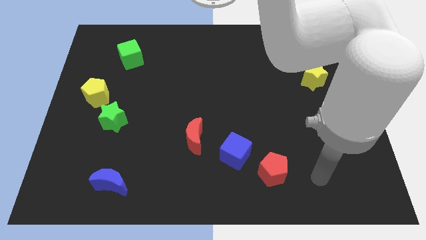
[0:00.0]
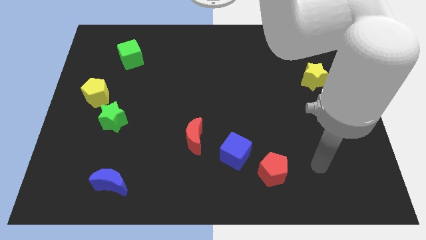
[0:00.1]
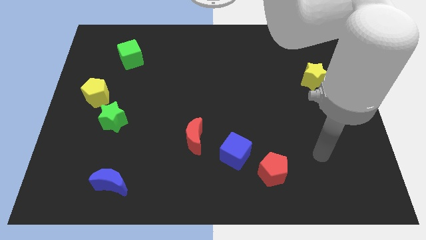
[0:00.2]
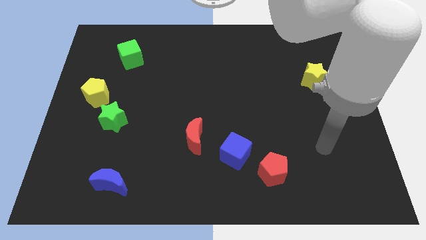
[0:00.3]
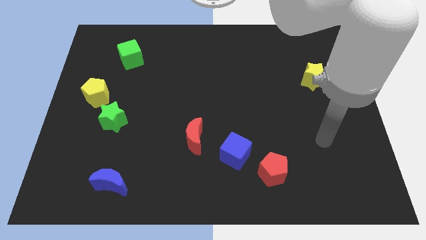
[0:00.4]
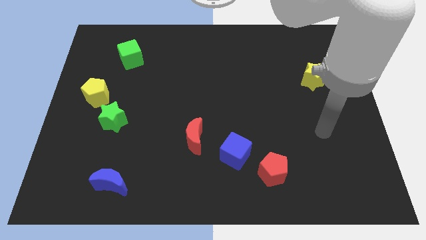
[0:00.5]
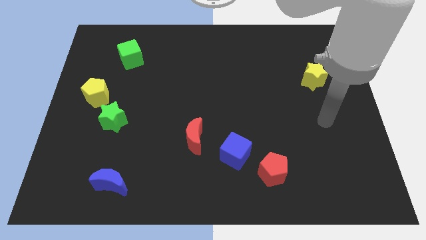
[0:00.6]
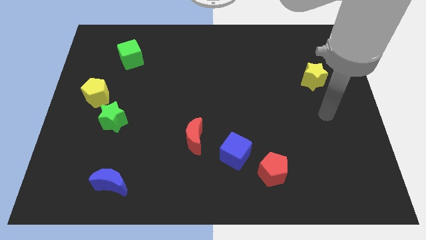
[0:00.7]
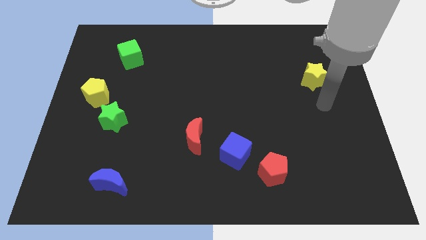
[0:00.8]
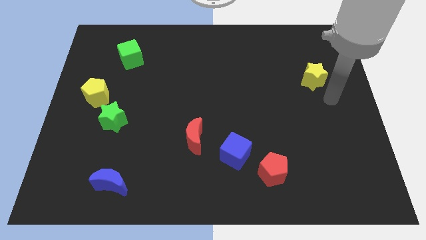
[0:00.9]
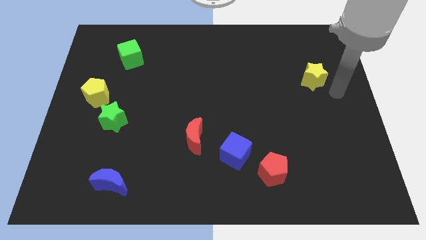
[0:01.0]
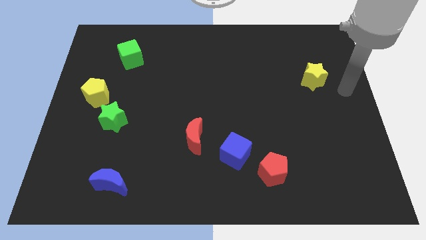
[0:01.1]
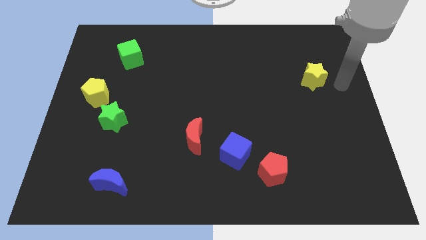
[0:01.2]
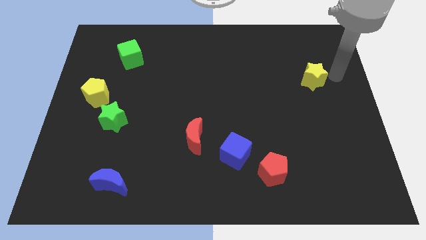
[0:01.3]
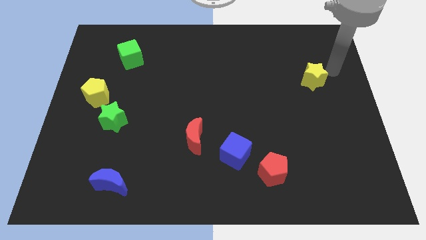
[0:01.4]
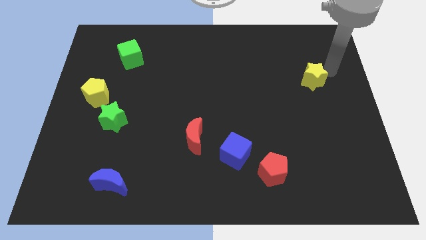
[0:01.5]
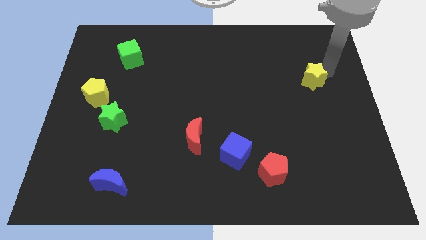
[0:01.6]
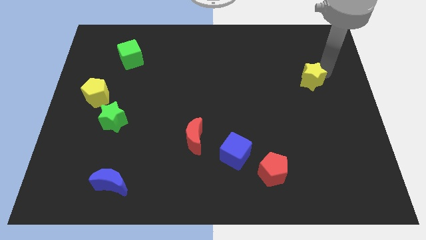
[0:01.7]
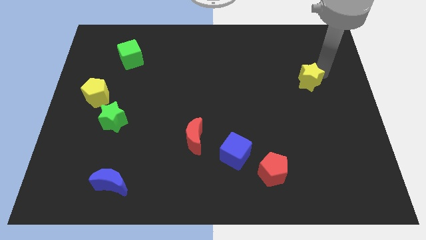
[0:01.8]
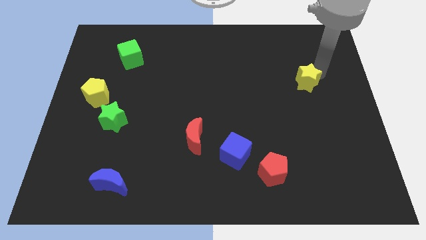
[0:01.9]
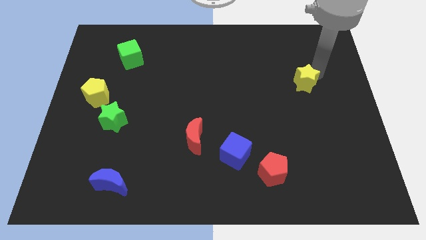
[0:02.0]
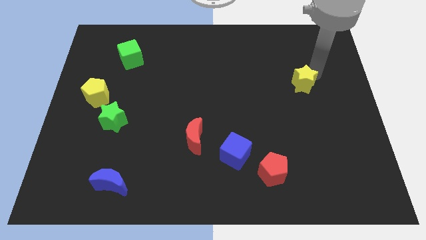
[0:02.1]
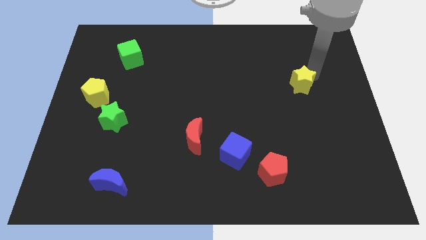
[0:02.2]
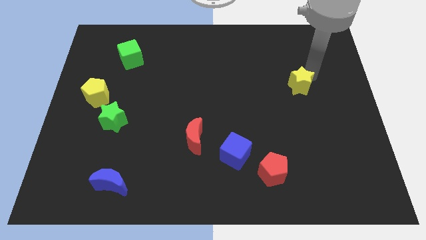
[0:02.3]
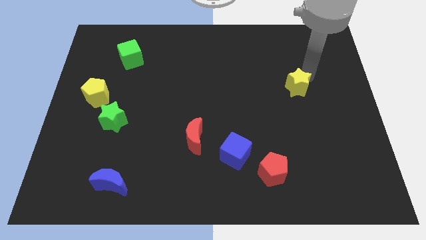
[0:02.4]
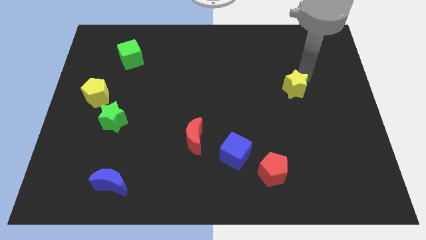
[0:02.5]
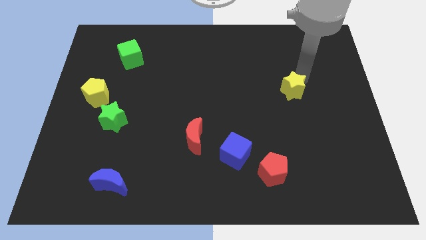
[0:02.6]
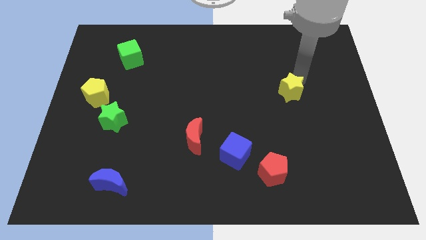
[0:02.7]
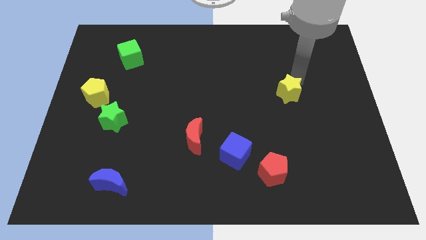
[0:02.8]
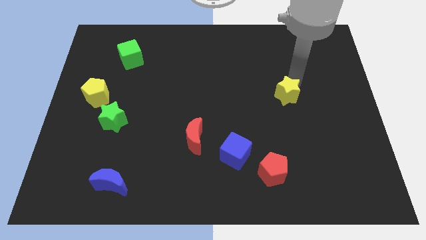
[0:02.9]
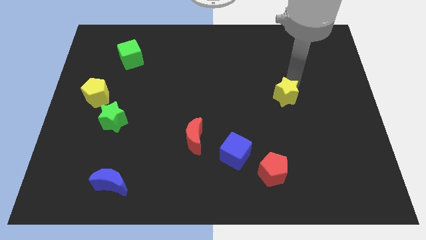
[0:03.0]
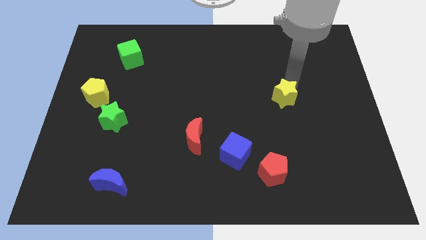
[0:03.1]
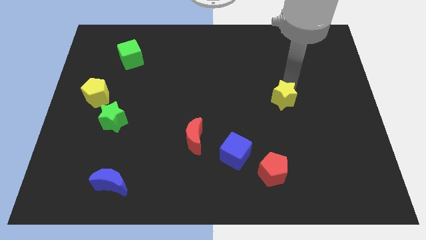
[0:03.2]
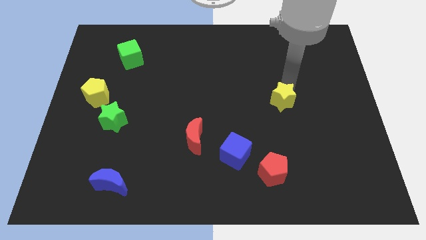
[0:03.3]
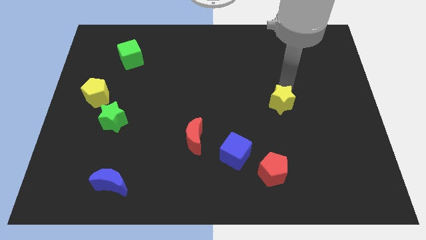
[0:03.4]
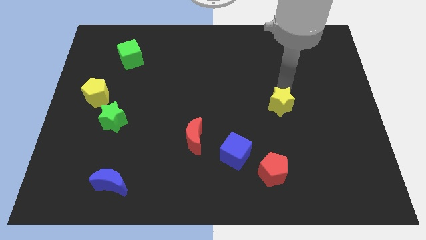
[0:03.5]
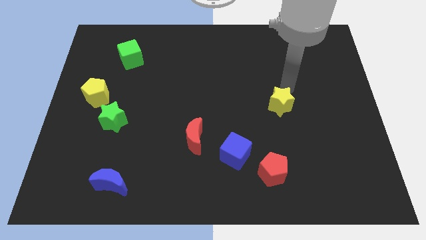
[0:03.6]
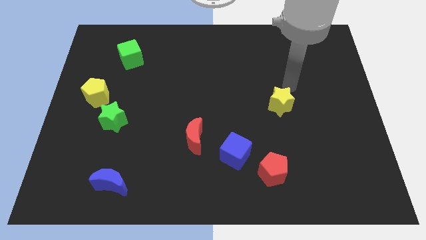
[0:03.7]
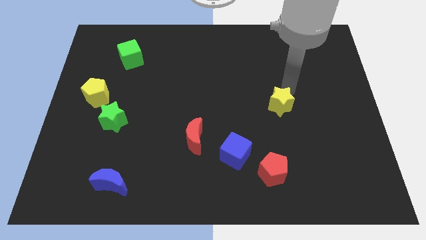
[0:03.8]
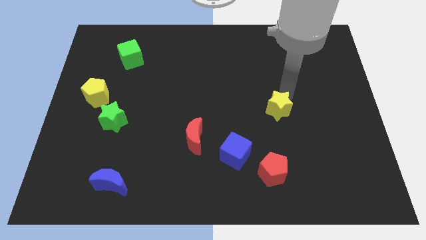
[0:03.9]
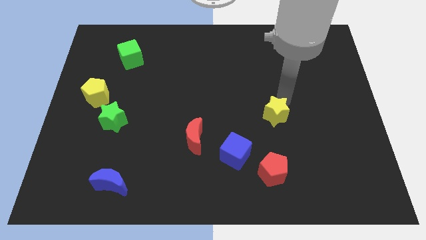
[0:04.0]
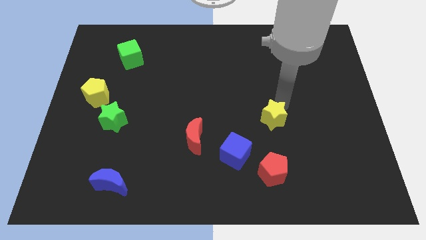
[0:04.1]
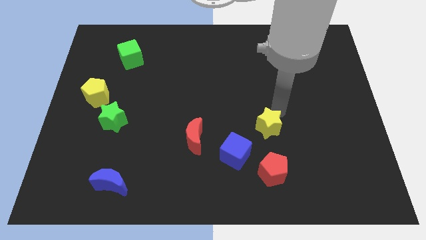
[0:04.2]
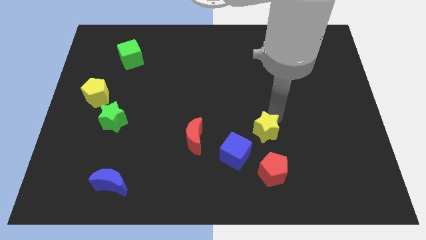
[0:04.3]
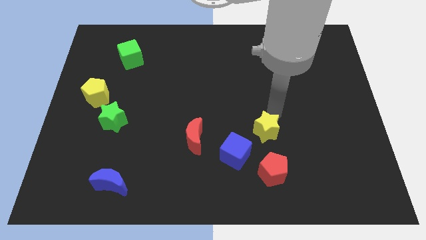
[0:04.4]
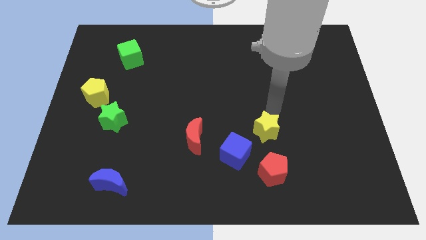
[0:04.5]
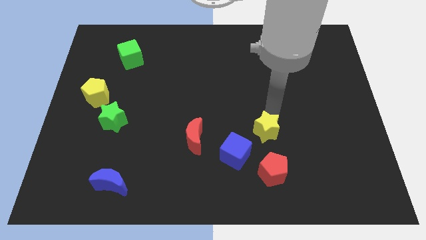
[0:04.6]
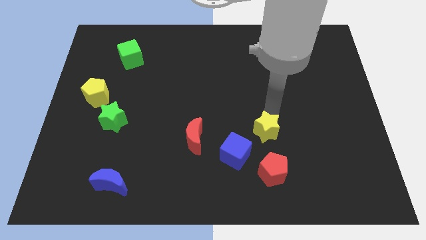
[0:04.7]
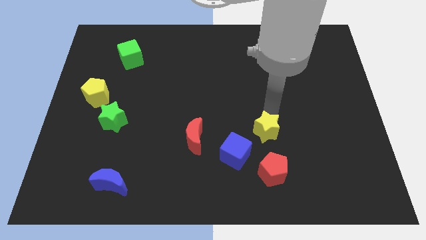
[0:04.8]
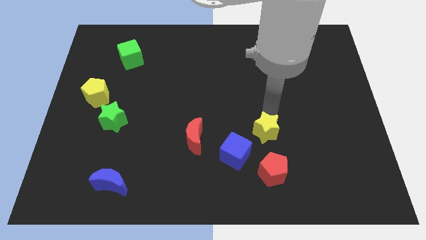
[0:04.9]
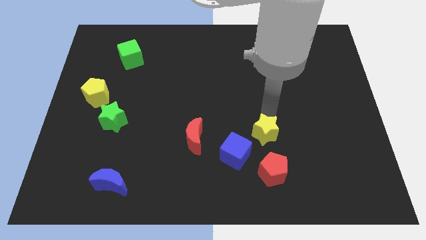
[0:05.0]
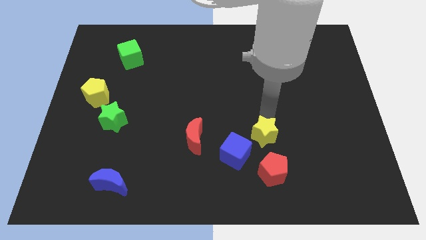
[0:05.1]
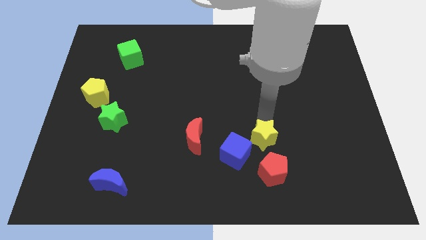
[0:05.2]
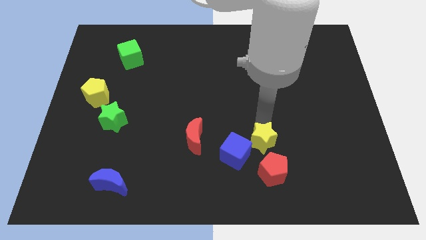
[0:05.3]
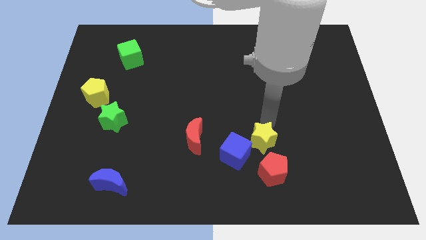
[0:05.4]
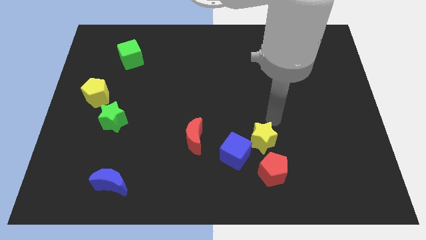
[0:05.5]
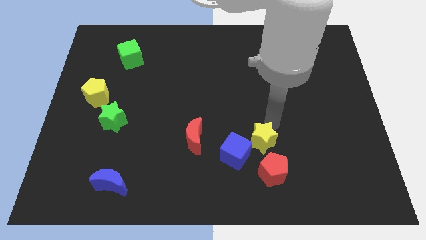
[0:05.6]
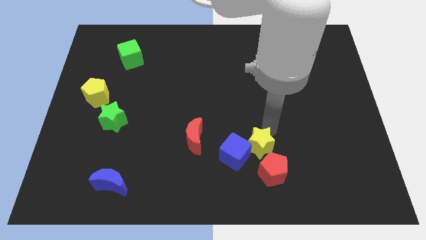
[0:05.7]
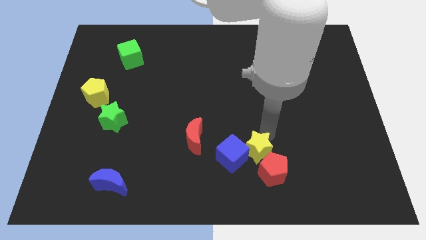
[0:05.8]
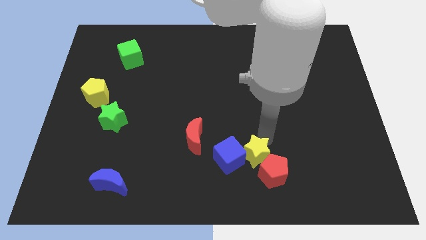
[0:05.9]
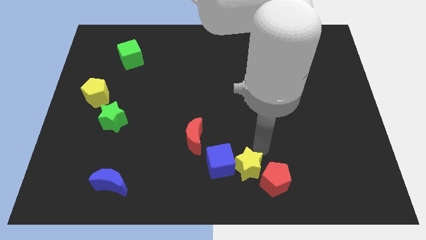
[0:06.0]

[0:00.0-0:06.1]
slide the yellow star to the bottom

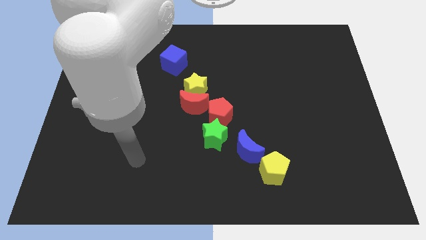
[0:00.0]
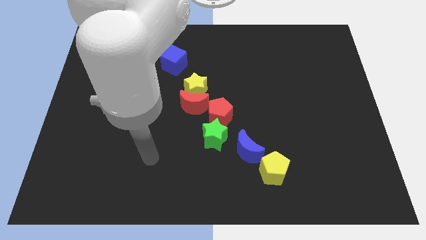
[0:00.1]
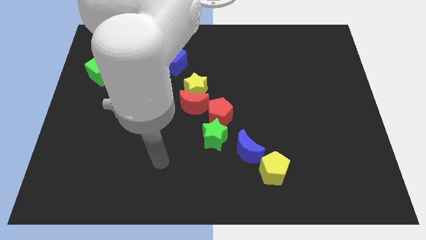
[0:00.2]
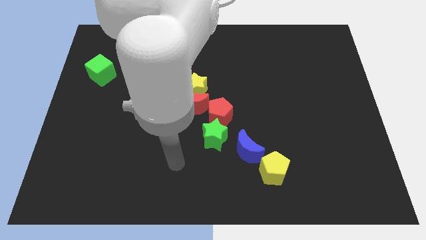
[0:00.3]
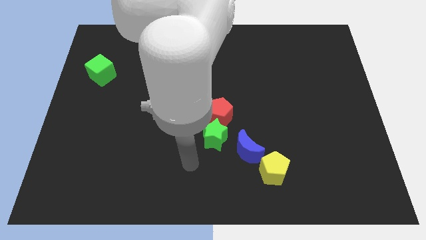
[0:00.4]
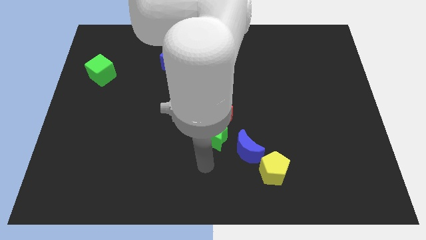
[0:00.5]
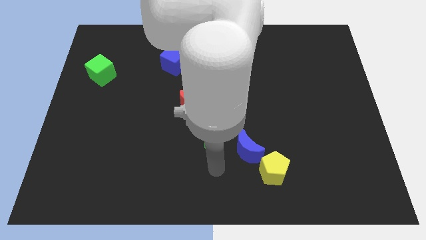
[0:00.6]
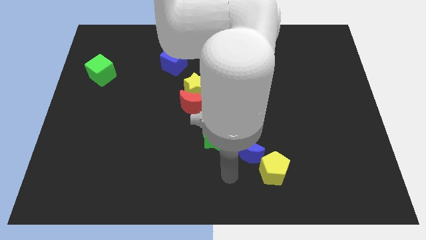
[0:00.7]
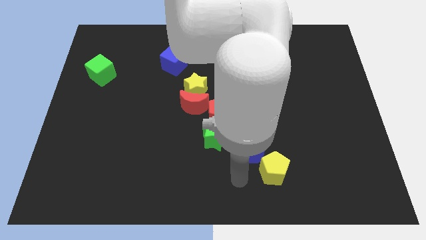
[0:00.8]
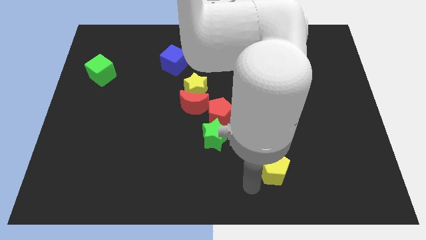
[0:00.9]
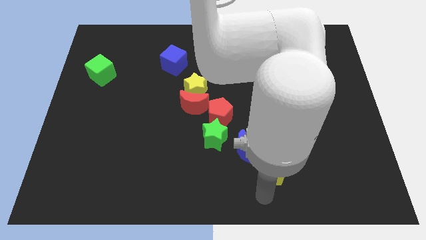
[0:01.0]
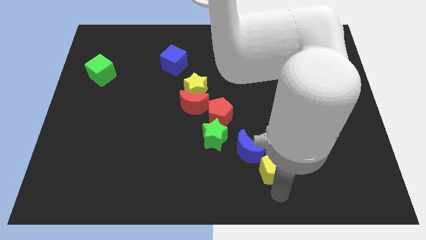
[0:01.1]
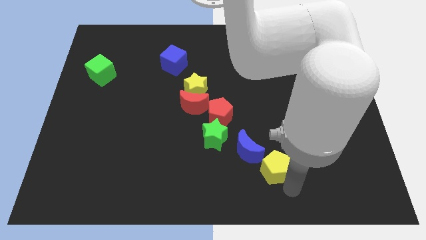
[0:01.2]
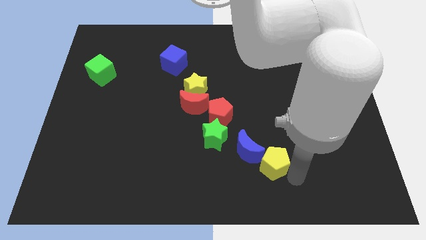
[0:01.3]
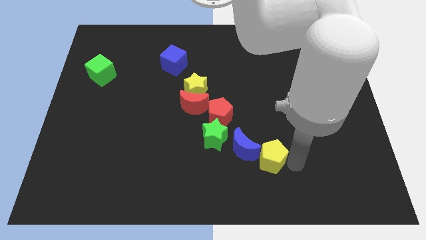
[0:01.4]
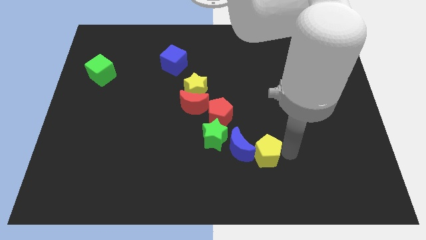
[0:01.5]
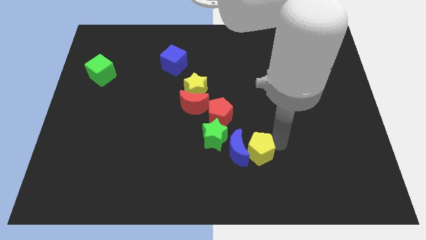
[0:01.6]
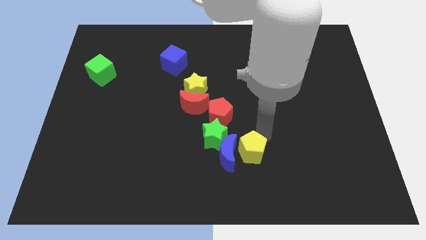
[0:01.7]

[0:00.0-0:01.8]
put the blue moon to the bottom side
